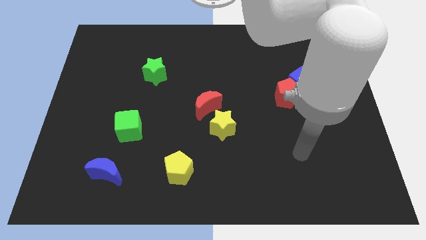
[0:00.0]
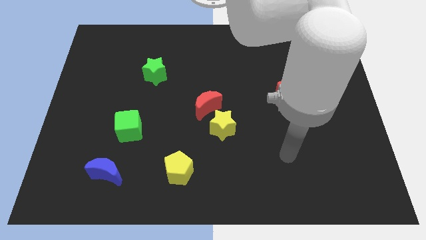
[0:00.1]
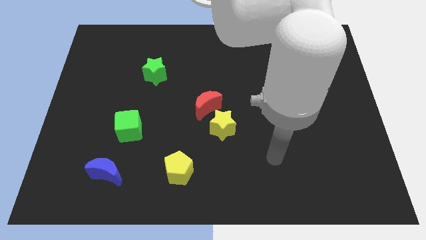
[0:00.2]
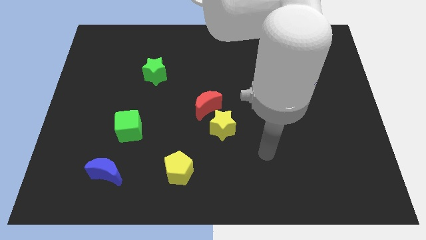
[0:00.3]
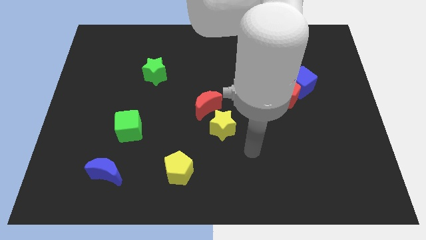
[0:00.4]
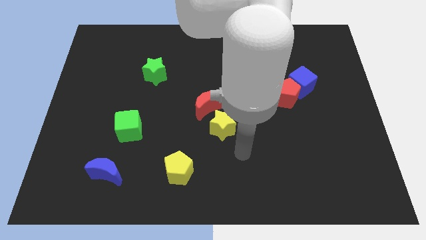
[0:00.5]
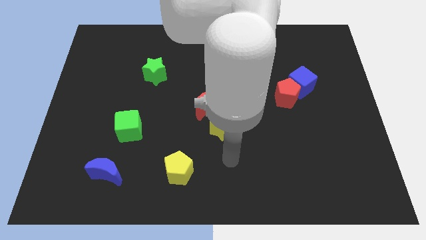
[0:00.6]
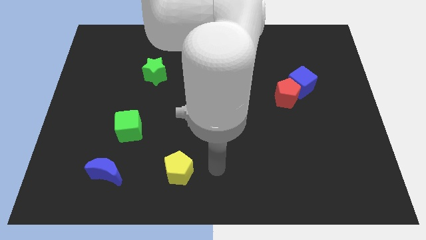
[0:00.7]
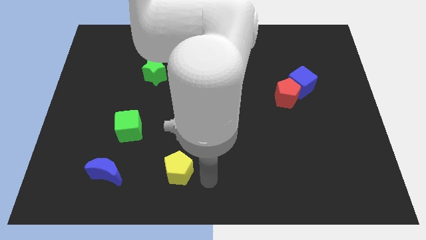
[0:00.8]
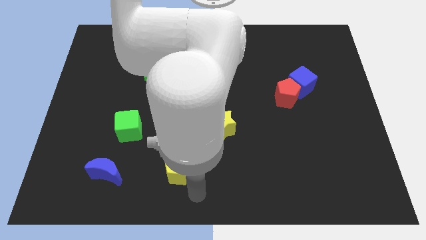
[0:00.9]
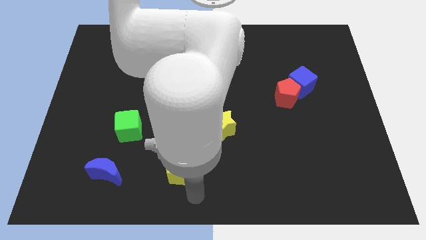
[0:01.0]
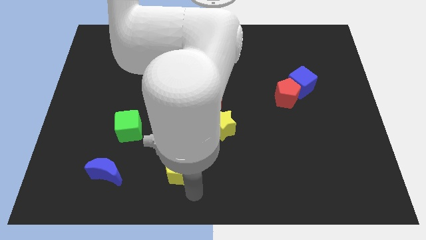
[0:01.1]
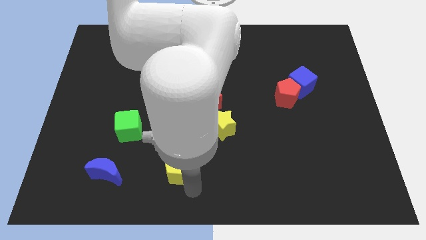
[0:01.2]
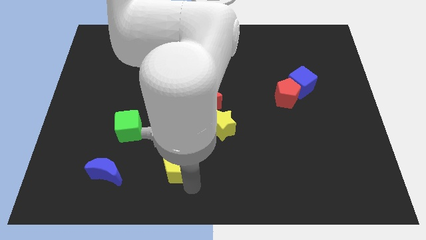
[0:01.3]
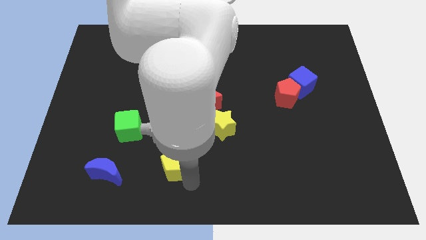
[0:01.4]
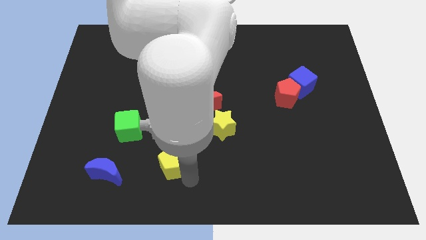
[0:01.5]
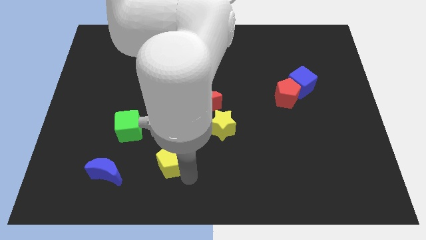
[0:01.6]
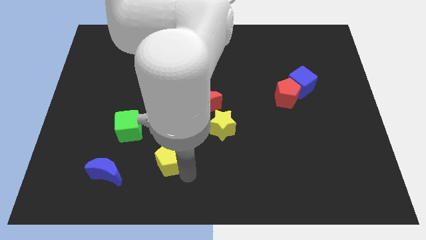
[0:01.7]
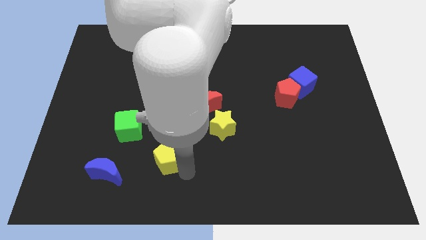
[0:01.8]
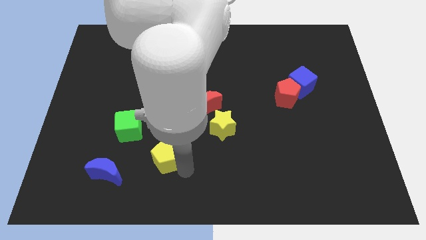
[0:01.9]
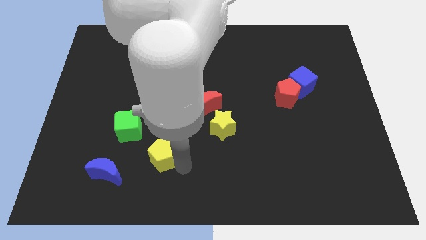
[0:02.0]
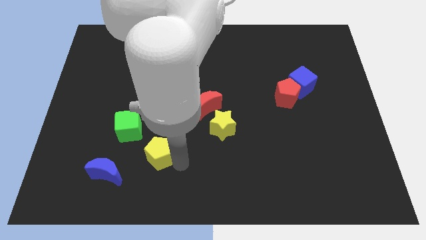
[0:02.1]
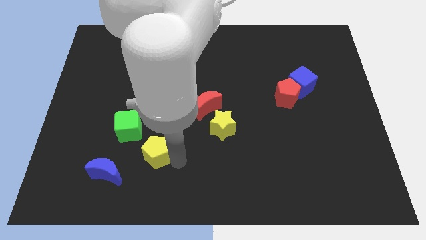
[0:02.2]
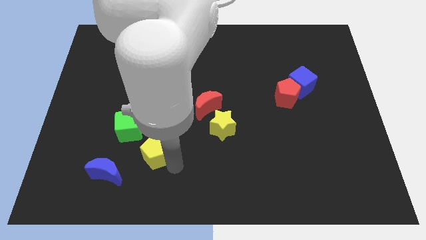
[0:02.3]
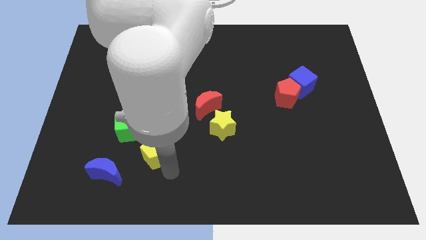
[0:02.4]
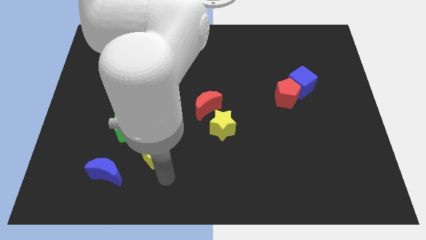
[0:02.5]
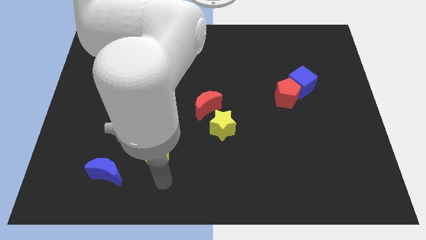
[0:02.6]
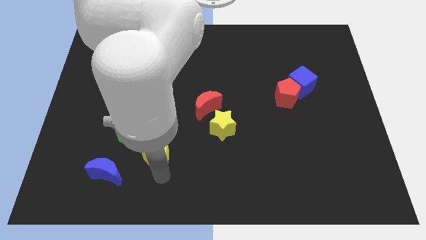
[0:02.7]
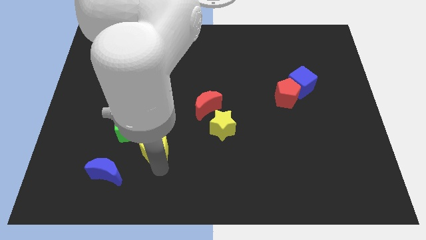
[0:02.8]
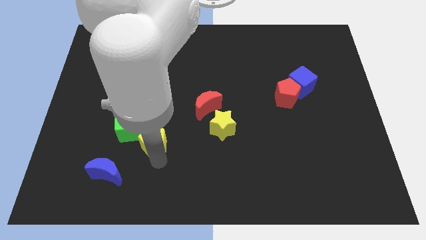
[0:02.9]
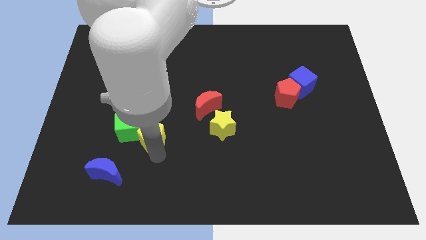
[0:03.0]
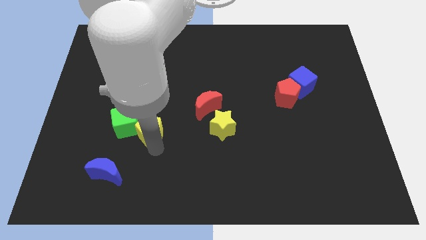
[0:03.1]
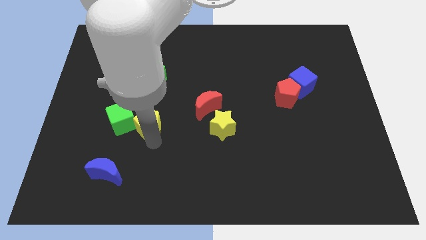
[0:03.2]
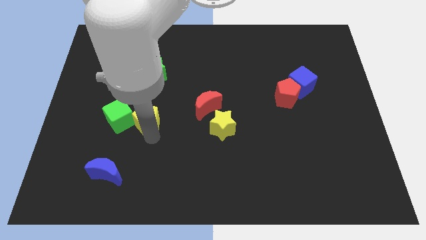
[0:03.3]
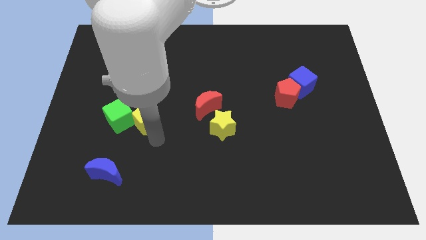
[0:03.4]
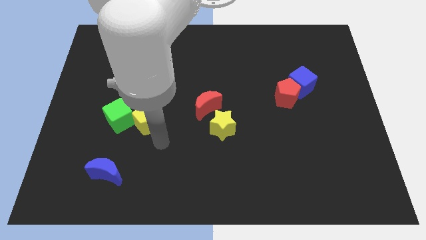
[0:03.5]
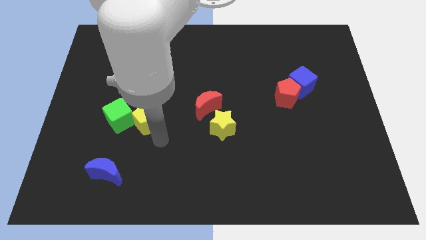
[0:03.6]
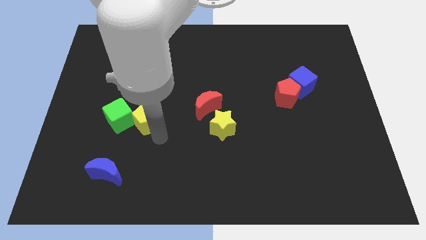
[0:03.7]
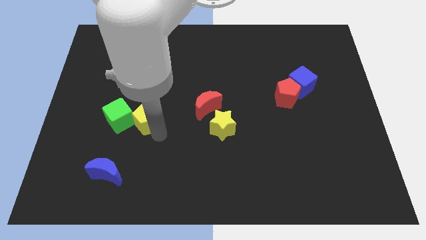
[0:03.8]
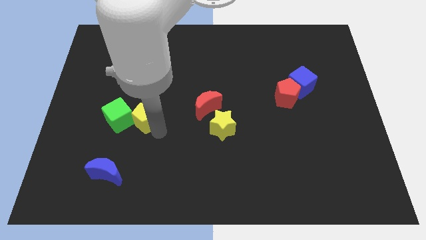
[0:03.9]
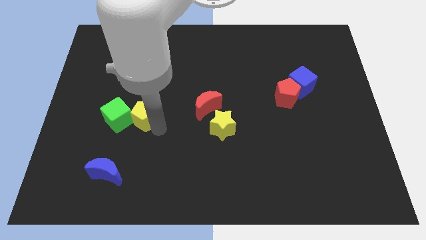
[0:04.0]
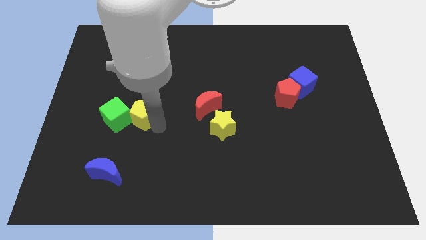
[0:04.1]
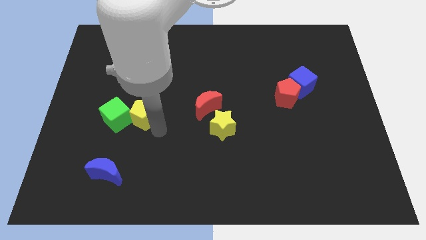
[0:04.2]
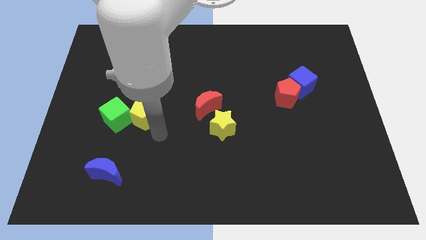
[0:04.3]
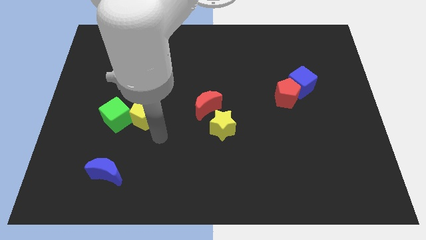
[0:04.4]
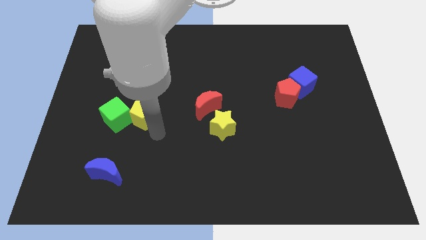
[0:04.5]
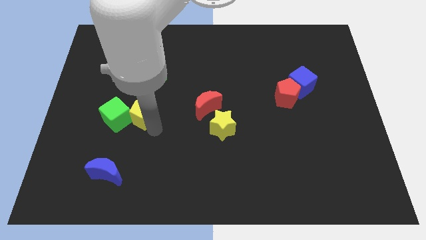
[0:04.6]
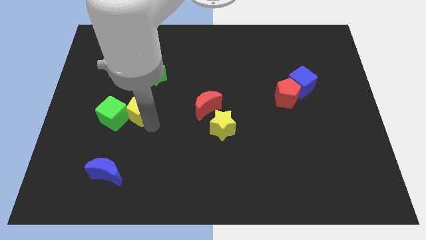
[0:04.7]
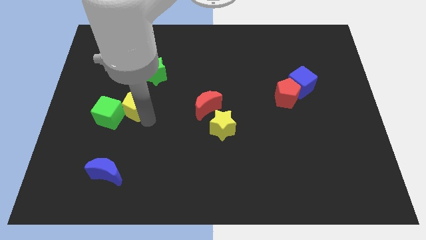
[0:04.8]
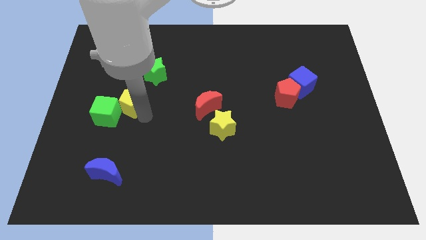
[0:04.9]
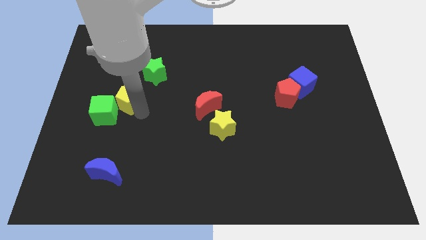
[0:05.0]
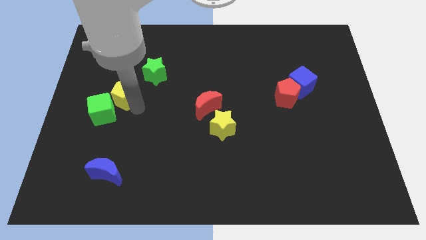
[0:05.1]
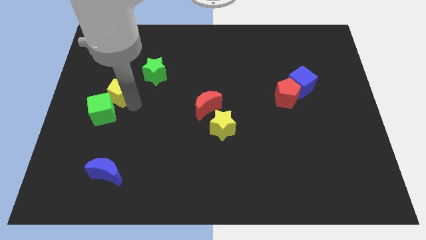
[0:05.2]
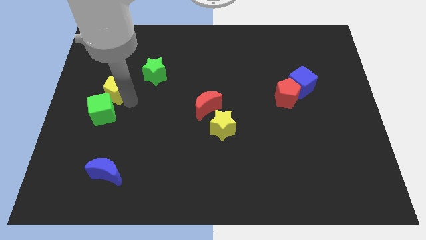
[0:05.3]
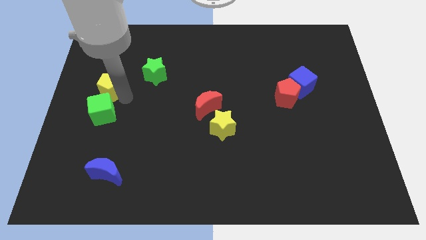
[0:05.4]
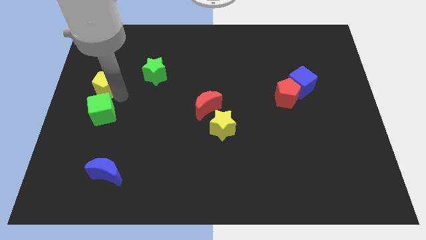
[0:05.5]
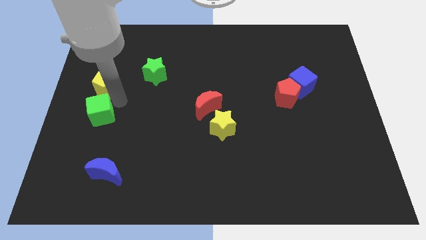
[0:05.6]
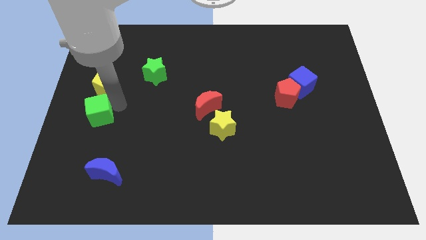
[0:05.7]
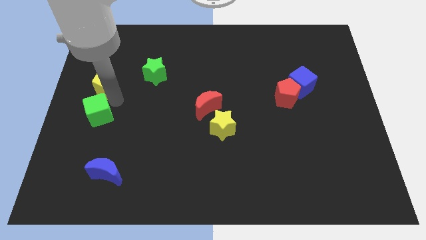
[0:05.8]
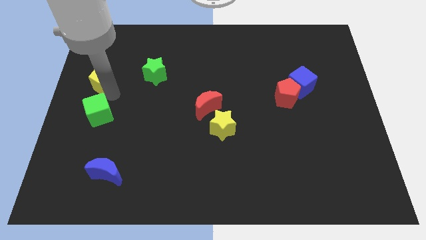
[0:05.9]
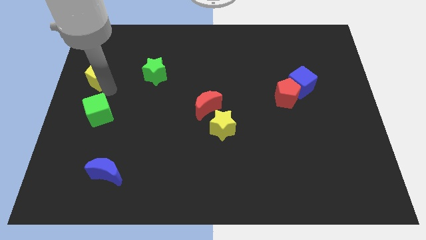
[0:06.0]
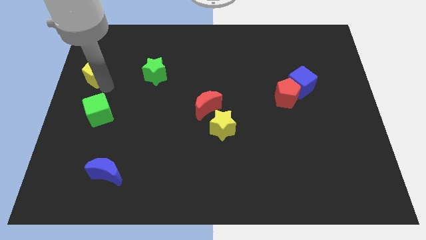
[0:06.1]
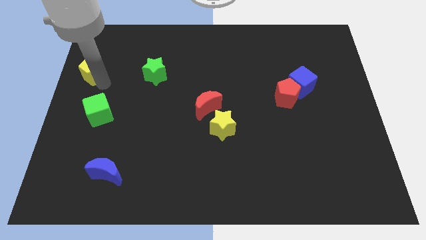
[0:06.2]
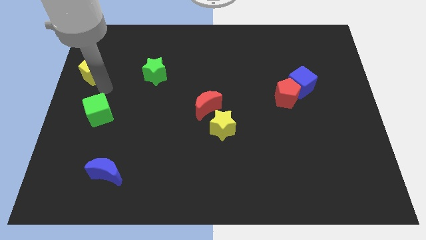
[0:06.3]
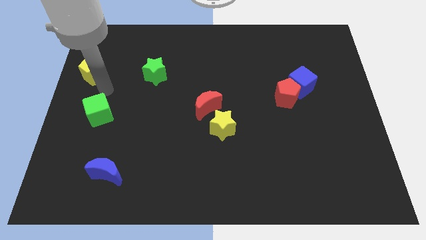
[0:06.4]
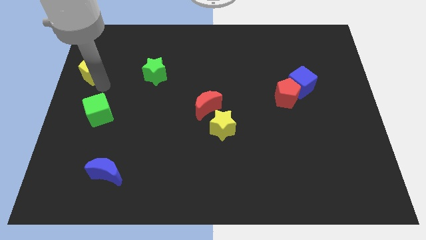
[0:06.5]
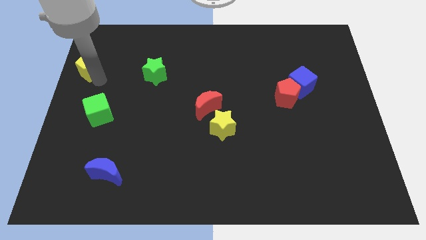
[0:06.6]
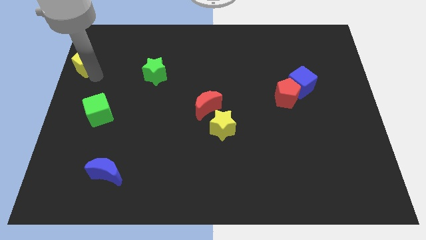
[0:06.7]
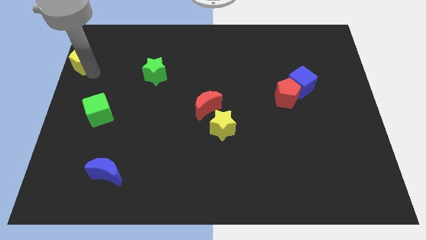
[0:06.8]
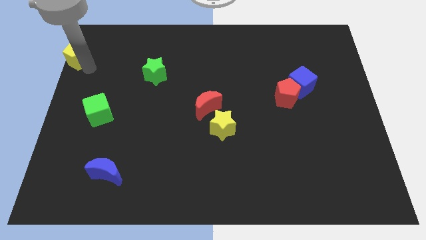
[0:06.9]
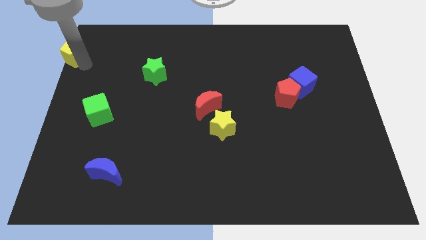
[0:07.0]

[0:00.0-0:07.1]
move the yellow pentagon to the upper left corner

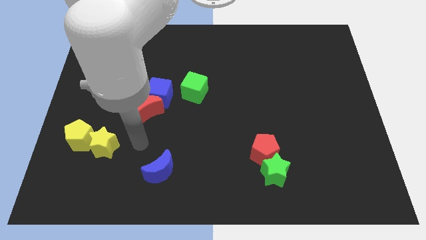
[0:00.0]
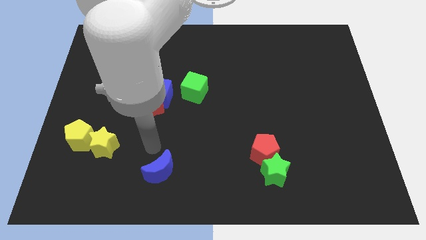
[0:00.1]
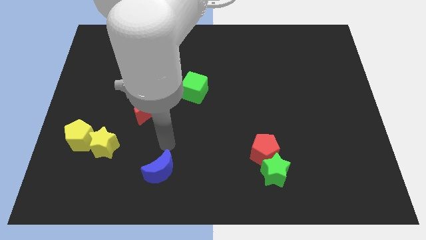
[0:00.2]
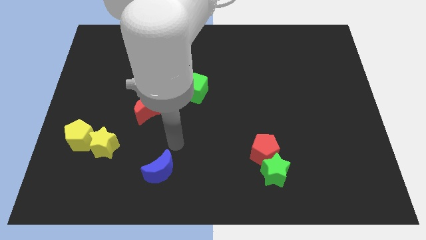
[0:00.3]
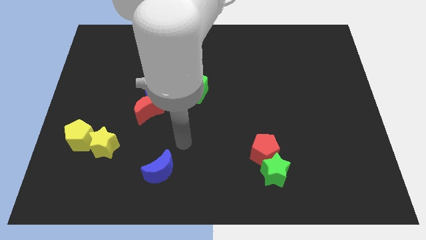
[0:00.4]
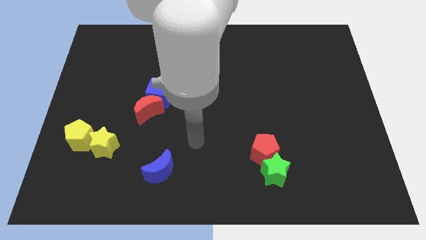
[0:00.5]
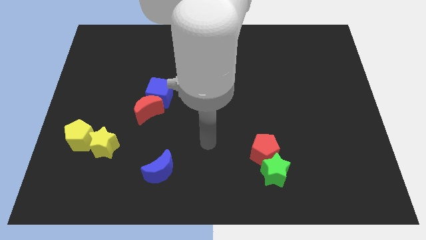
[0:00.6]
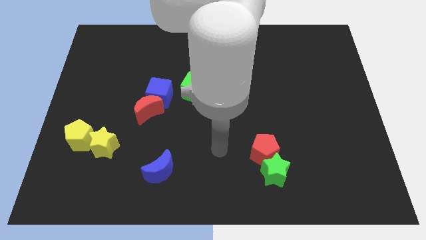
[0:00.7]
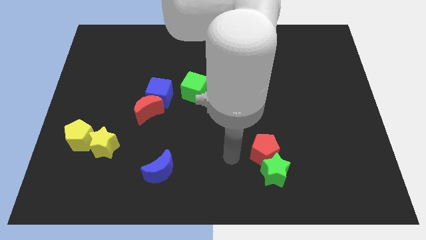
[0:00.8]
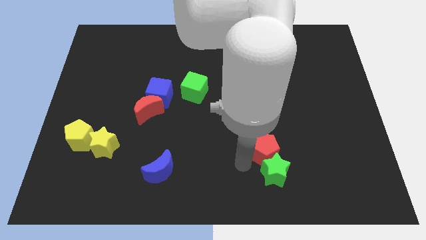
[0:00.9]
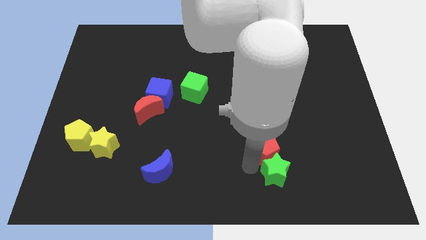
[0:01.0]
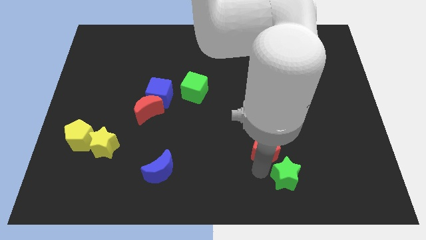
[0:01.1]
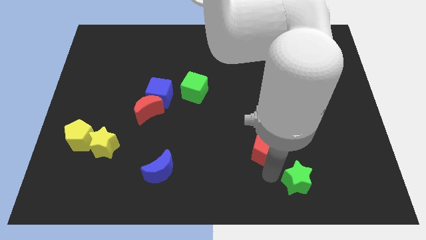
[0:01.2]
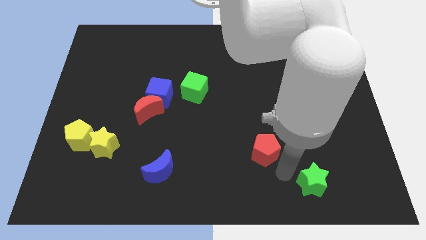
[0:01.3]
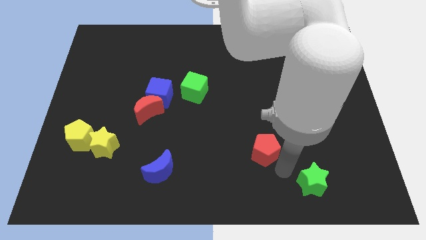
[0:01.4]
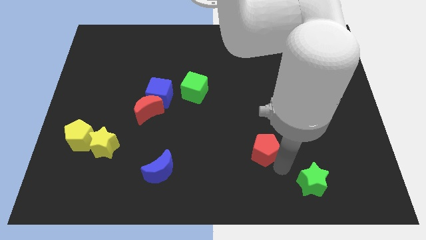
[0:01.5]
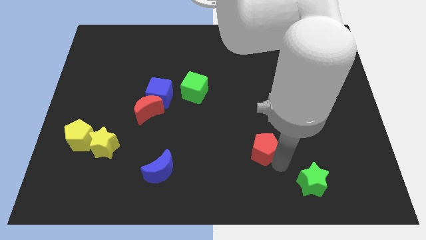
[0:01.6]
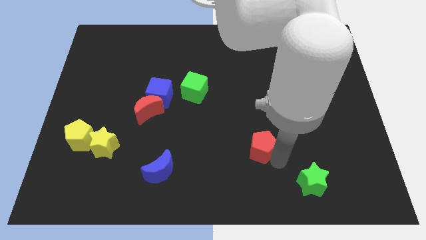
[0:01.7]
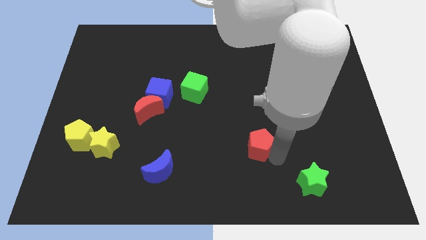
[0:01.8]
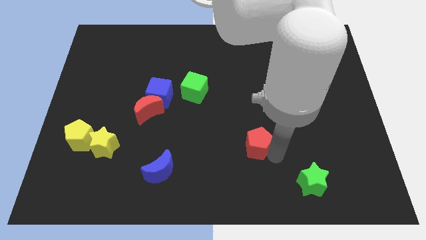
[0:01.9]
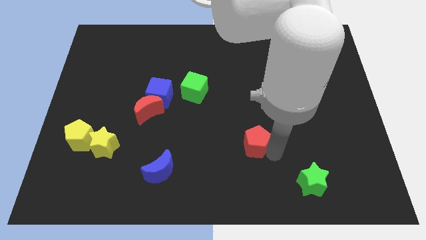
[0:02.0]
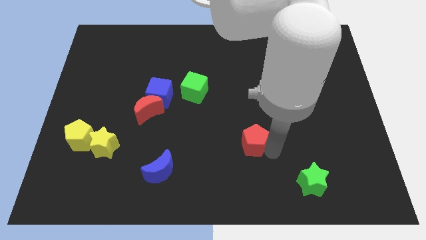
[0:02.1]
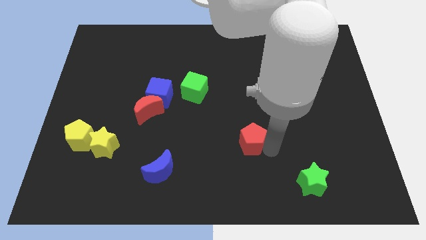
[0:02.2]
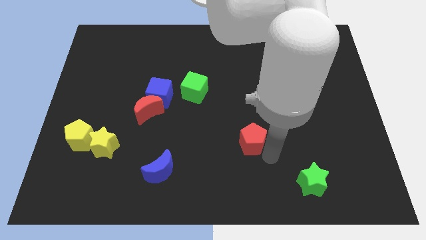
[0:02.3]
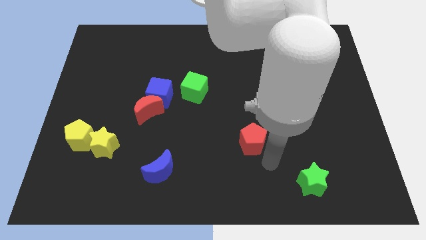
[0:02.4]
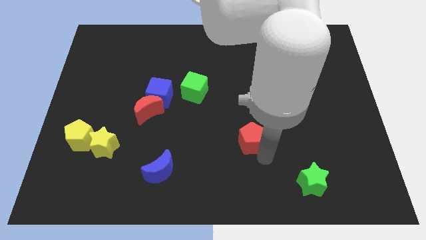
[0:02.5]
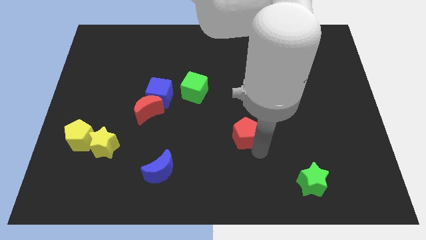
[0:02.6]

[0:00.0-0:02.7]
push the red pentagon to the middle of the board
